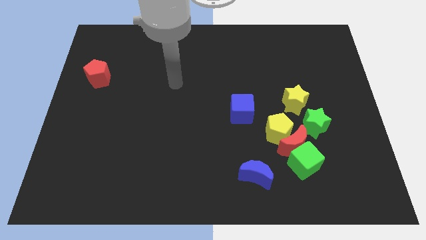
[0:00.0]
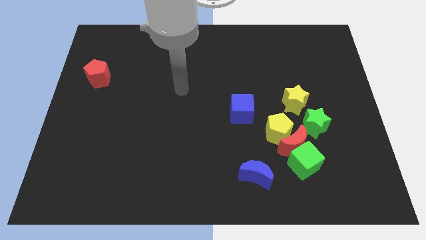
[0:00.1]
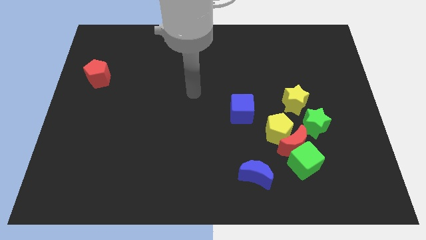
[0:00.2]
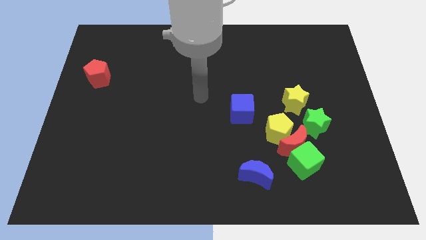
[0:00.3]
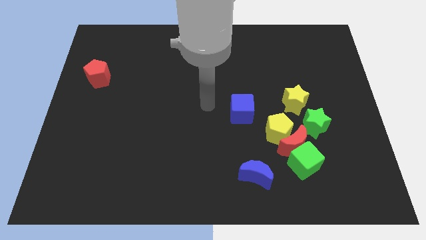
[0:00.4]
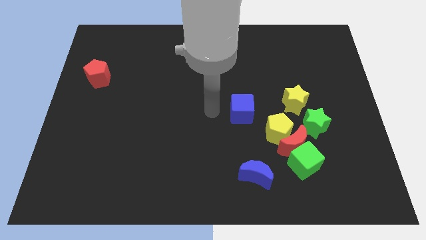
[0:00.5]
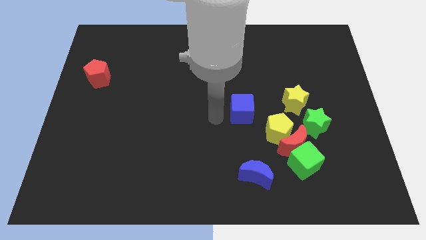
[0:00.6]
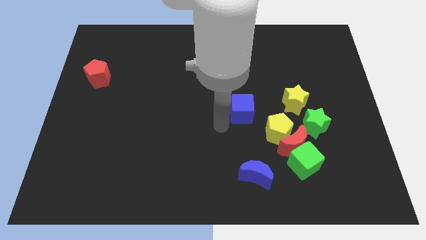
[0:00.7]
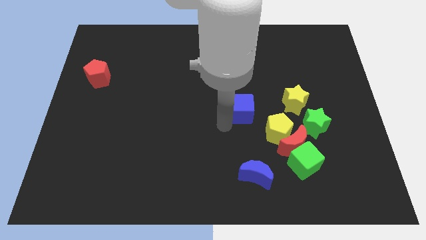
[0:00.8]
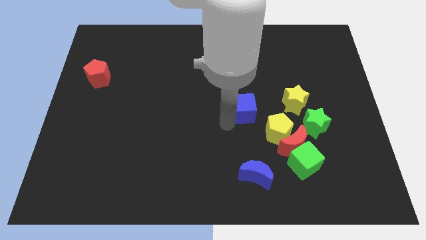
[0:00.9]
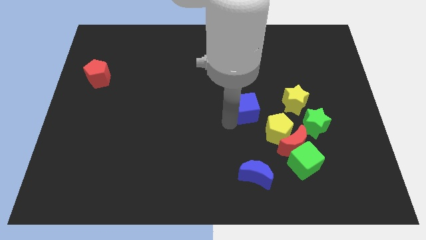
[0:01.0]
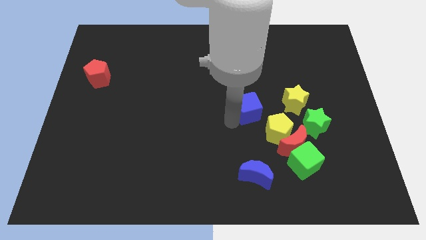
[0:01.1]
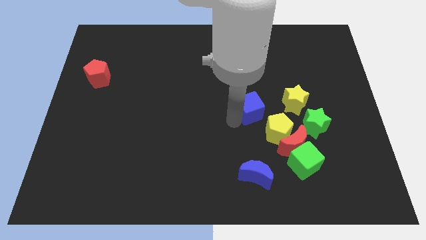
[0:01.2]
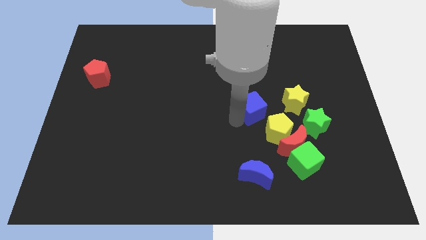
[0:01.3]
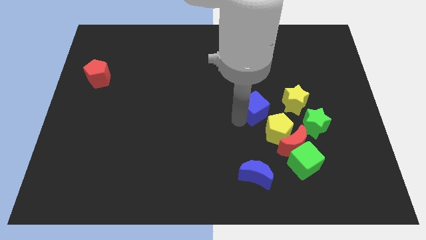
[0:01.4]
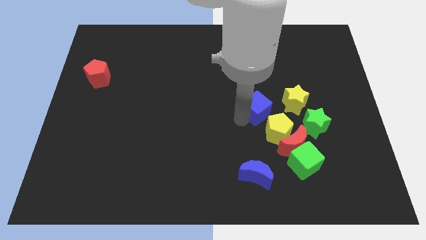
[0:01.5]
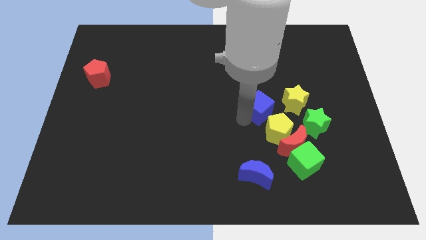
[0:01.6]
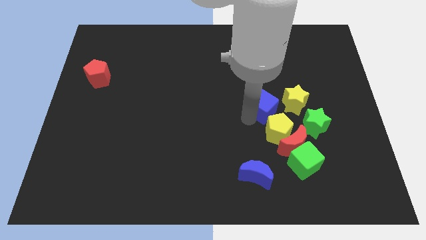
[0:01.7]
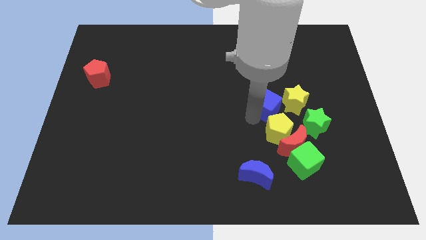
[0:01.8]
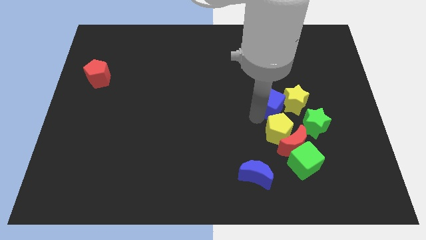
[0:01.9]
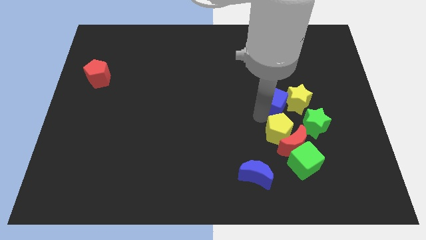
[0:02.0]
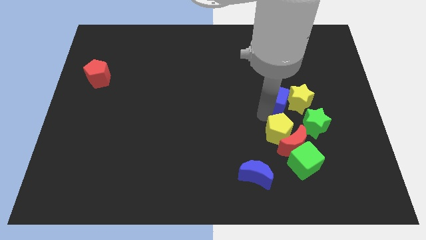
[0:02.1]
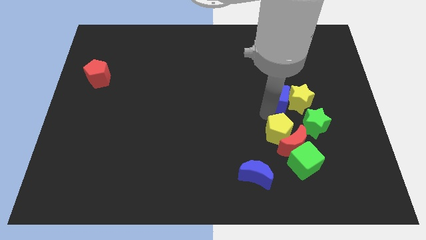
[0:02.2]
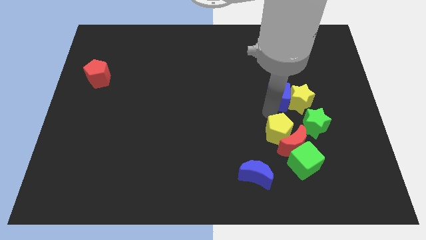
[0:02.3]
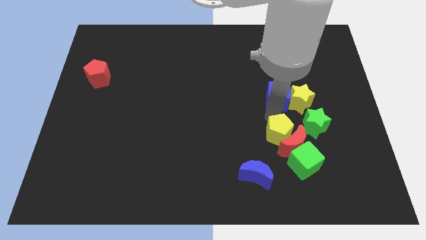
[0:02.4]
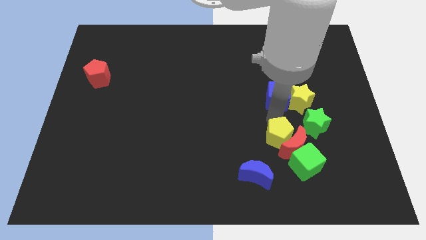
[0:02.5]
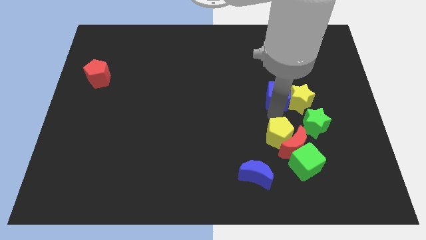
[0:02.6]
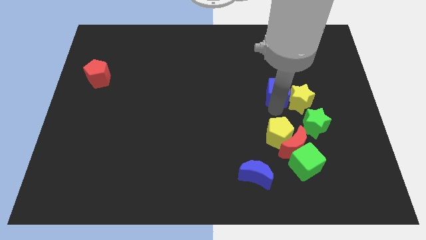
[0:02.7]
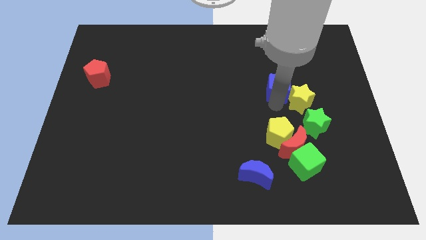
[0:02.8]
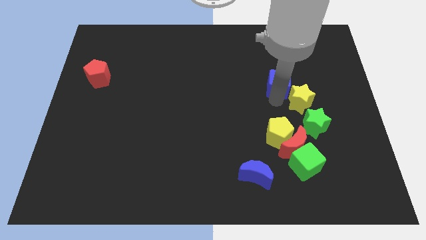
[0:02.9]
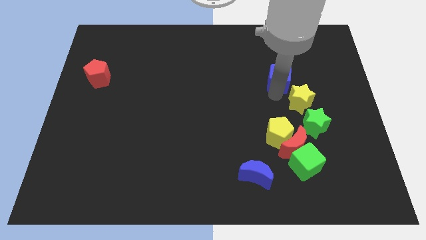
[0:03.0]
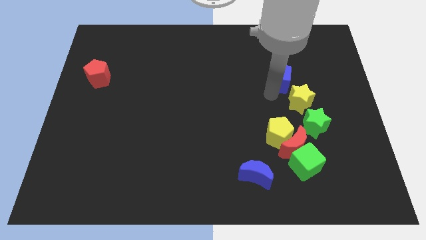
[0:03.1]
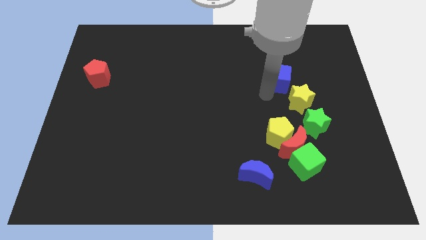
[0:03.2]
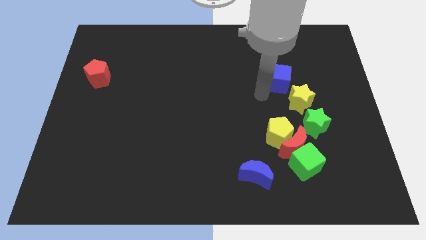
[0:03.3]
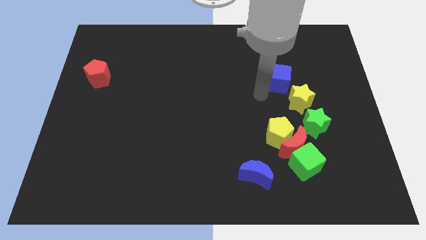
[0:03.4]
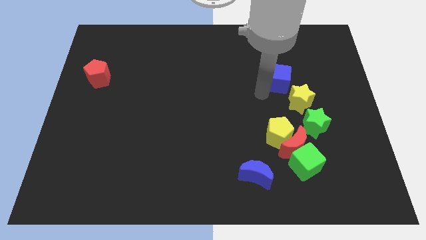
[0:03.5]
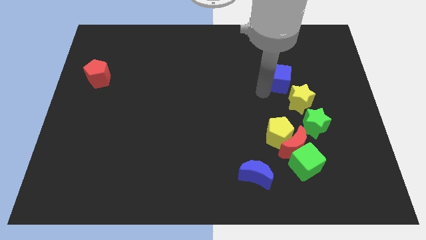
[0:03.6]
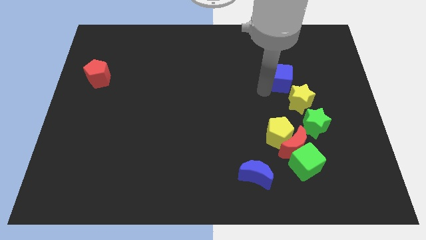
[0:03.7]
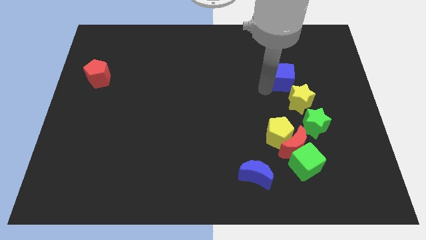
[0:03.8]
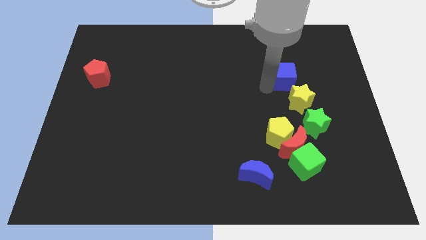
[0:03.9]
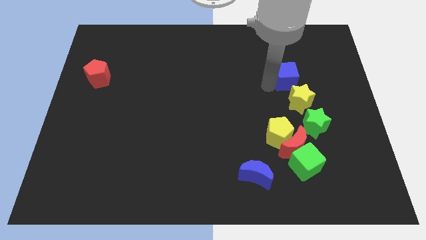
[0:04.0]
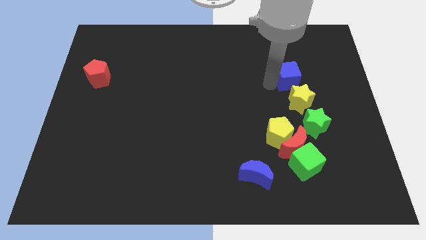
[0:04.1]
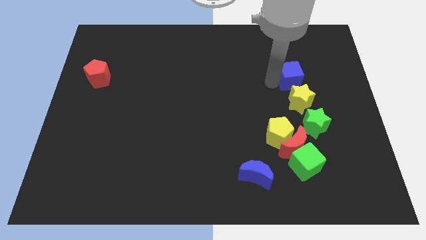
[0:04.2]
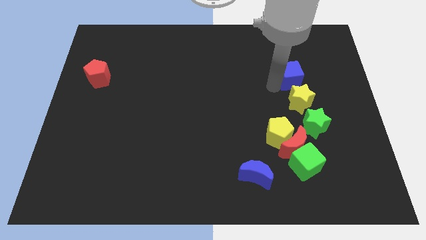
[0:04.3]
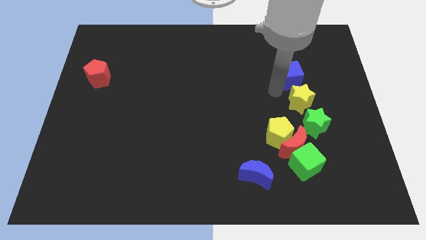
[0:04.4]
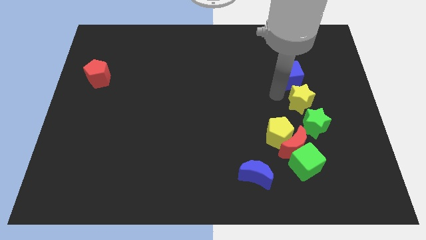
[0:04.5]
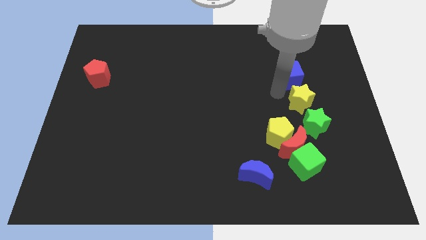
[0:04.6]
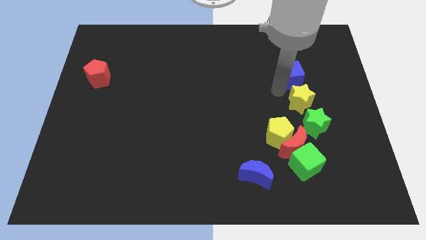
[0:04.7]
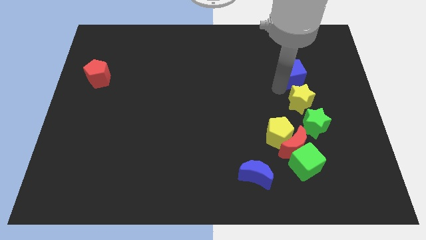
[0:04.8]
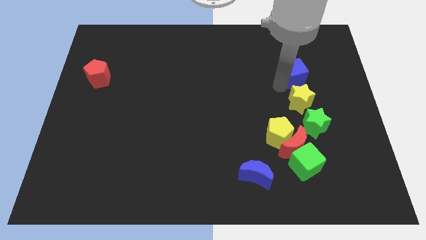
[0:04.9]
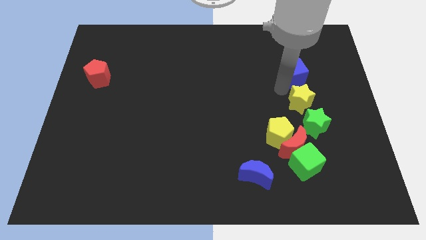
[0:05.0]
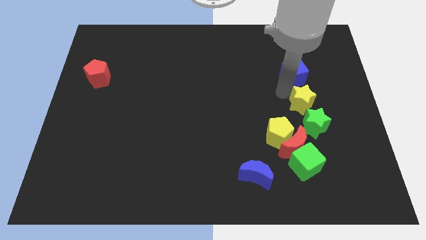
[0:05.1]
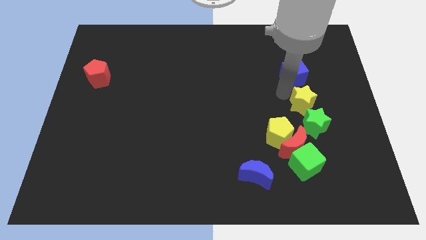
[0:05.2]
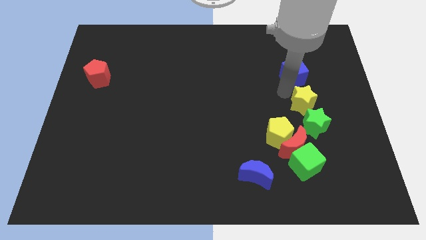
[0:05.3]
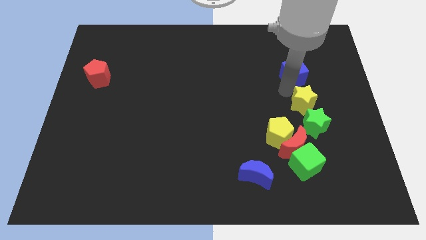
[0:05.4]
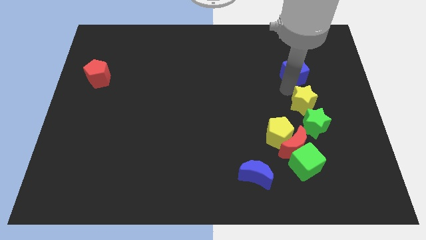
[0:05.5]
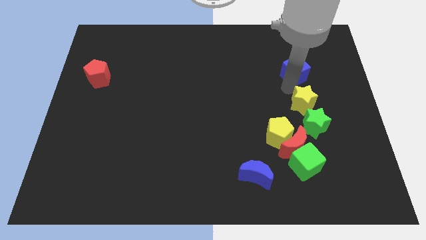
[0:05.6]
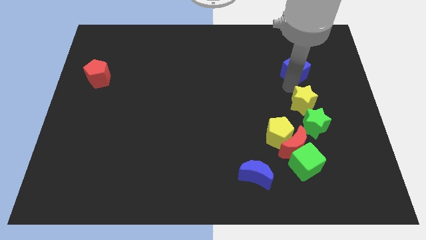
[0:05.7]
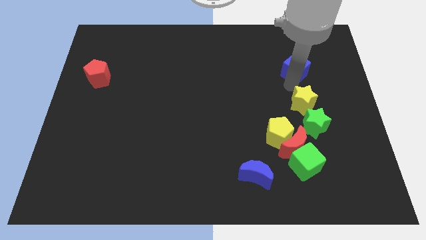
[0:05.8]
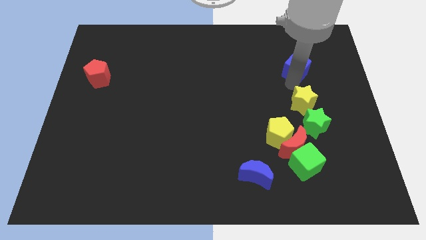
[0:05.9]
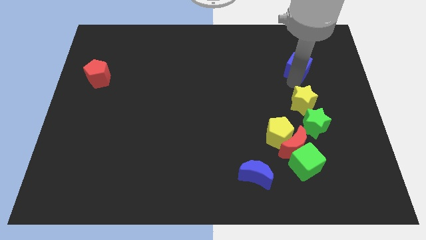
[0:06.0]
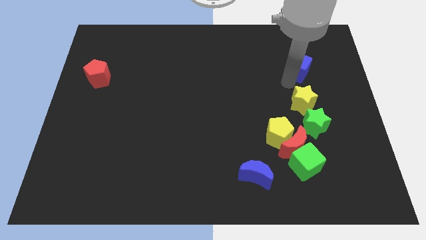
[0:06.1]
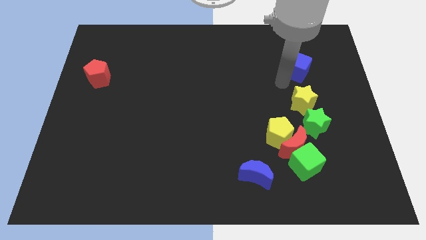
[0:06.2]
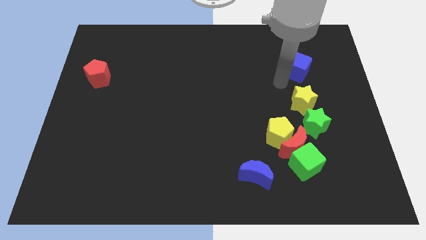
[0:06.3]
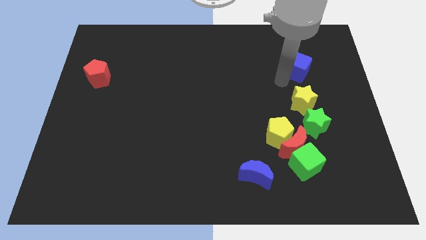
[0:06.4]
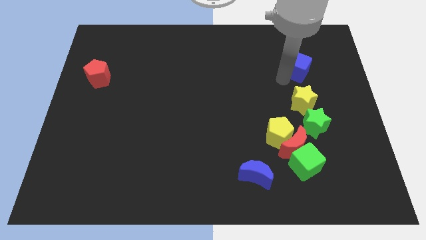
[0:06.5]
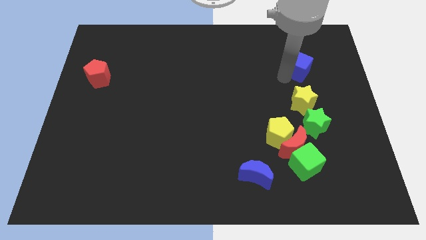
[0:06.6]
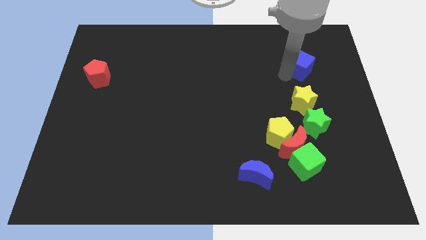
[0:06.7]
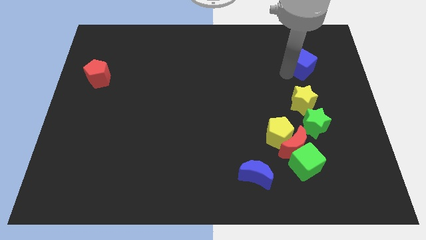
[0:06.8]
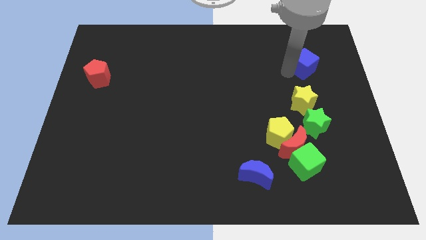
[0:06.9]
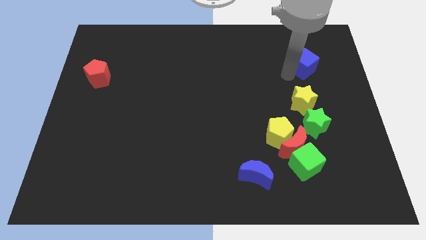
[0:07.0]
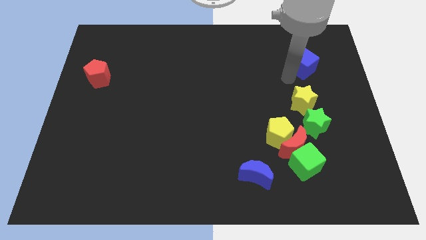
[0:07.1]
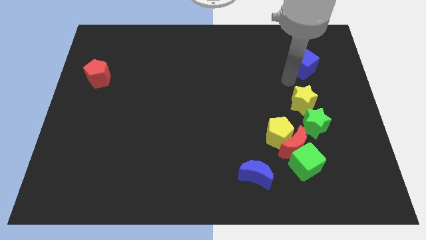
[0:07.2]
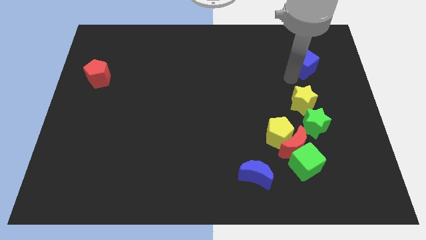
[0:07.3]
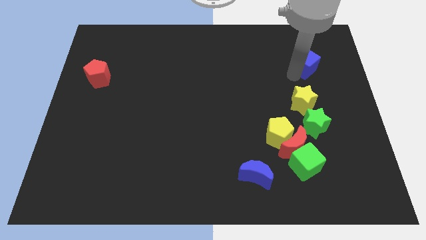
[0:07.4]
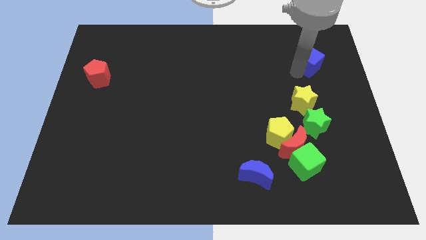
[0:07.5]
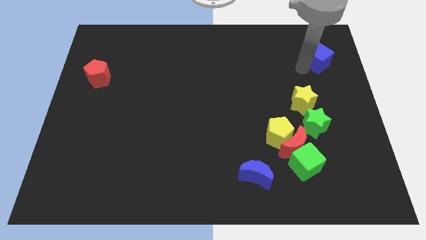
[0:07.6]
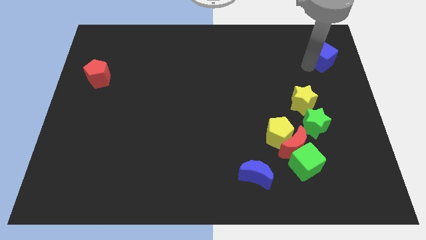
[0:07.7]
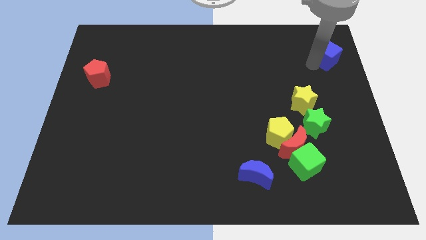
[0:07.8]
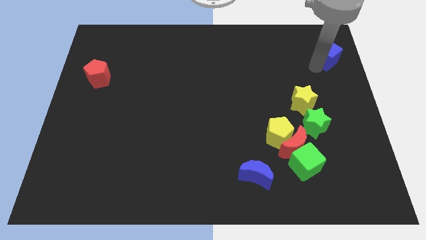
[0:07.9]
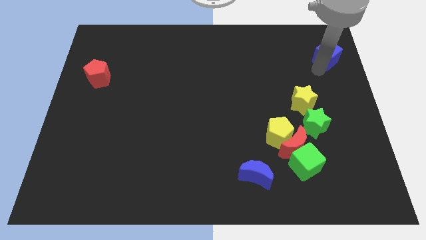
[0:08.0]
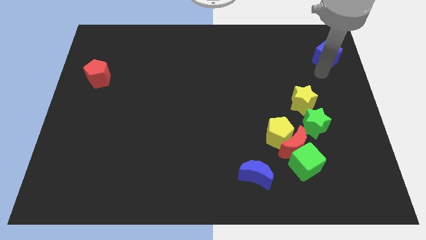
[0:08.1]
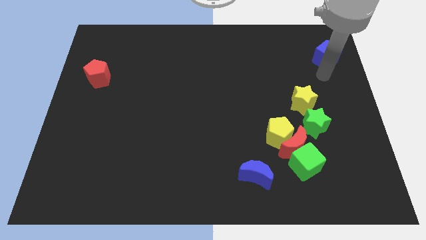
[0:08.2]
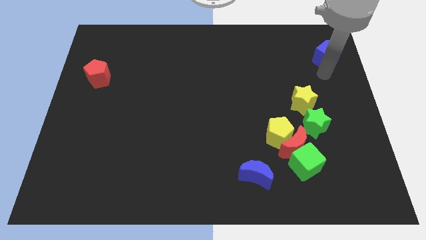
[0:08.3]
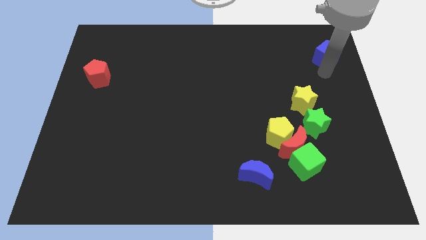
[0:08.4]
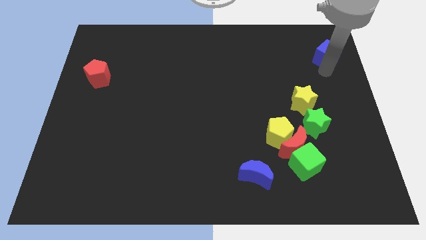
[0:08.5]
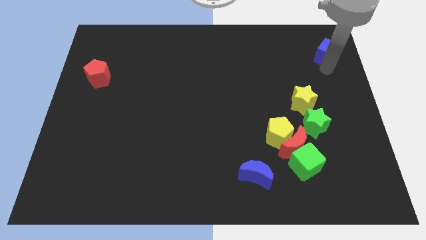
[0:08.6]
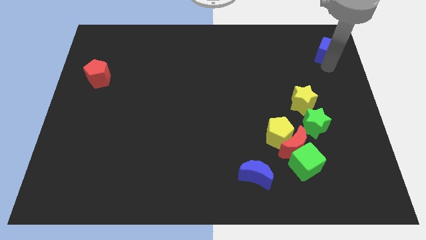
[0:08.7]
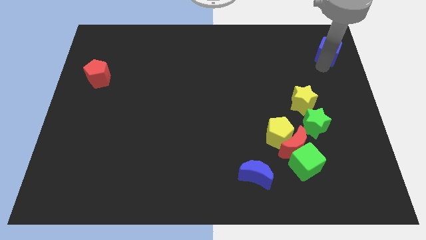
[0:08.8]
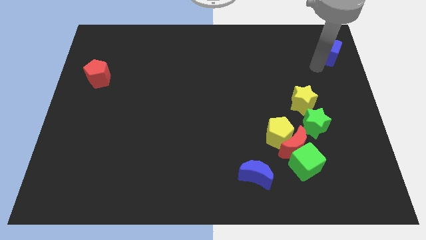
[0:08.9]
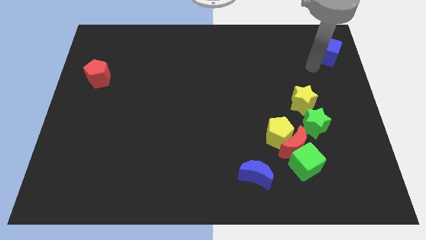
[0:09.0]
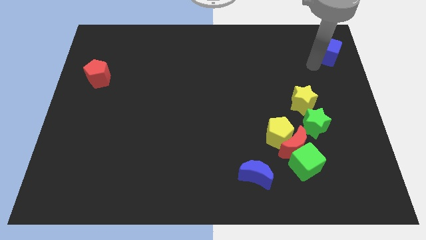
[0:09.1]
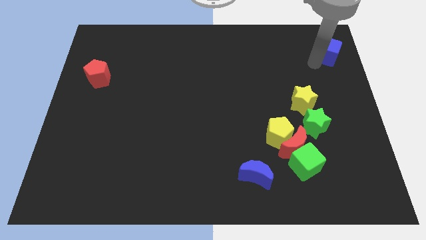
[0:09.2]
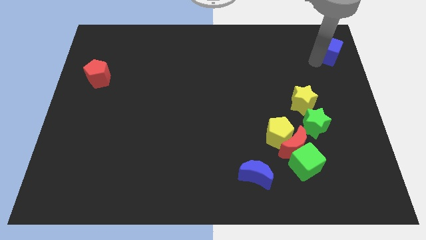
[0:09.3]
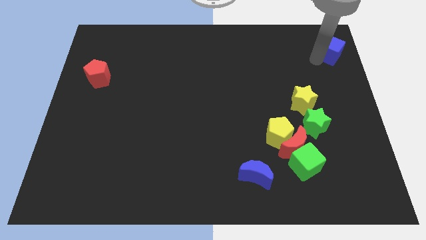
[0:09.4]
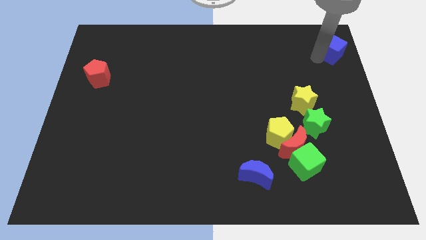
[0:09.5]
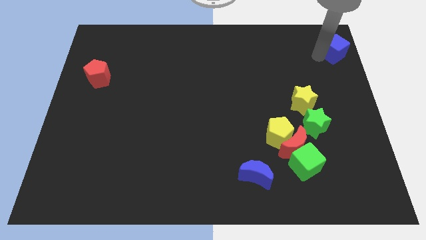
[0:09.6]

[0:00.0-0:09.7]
move the blue cube to the upper right corner
